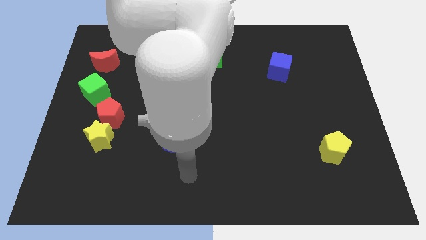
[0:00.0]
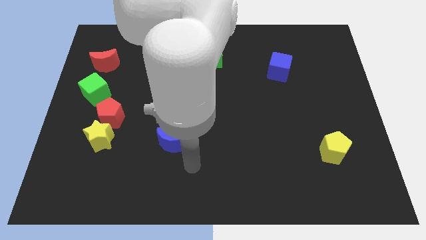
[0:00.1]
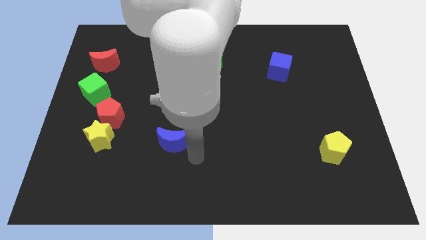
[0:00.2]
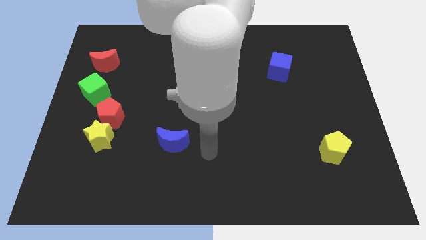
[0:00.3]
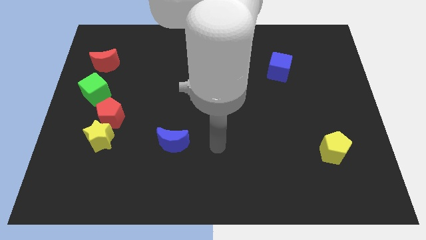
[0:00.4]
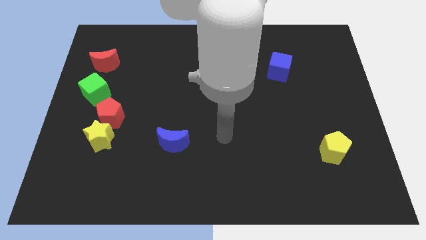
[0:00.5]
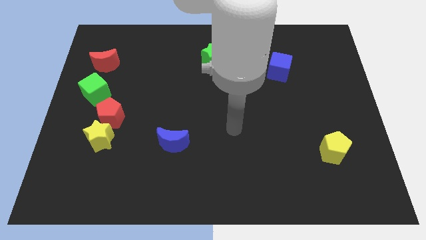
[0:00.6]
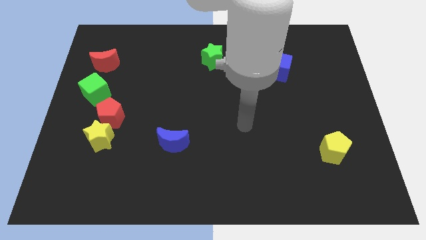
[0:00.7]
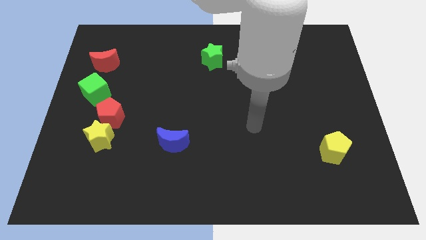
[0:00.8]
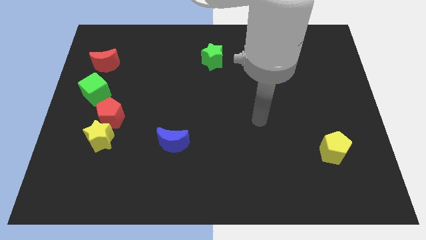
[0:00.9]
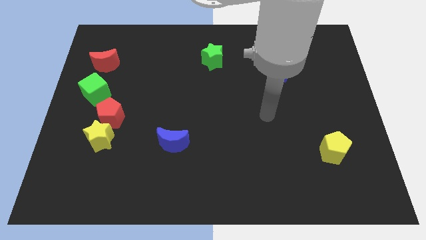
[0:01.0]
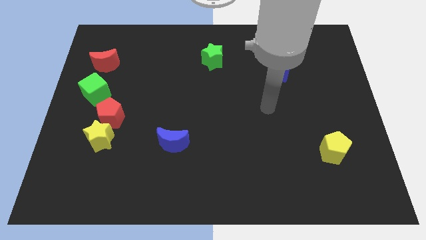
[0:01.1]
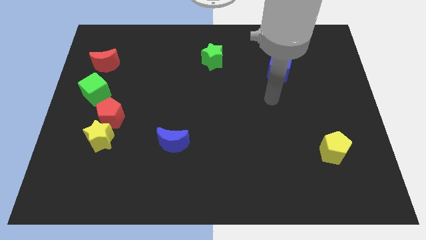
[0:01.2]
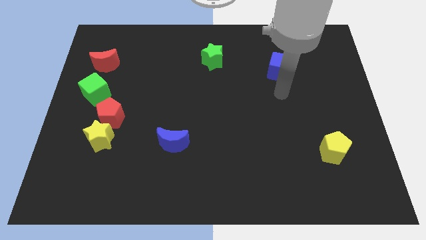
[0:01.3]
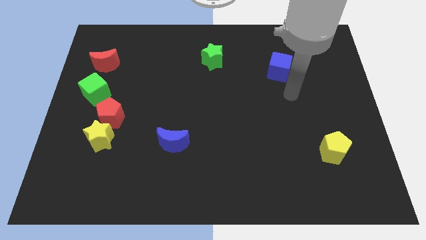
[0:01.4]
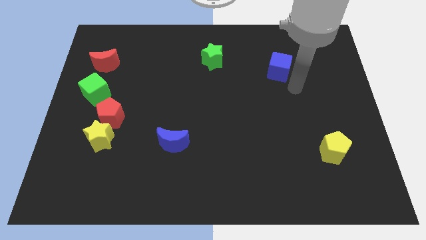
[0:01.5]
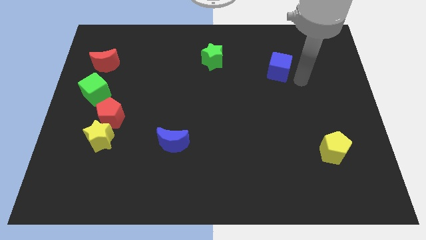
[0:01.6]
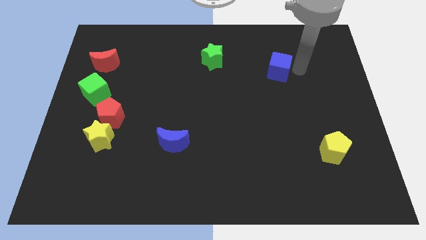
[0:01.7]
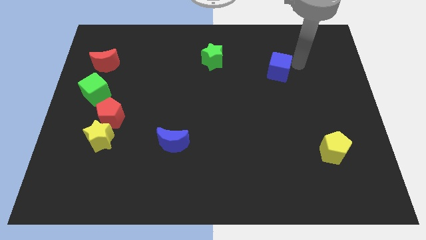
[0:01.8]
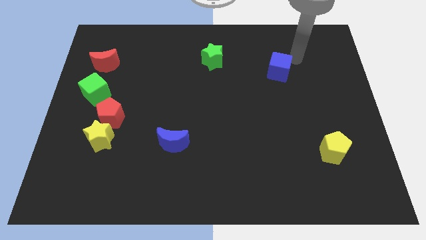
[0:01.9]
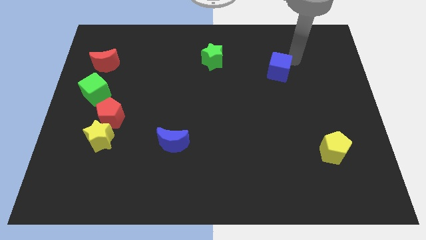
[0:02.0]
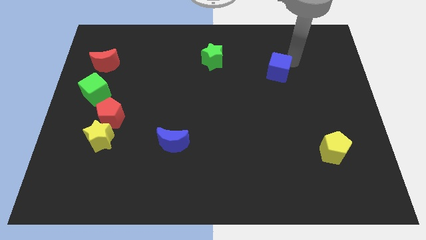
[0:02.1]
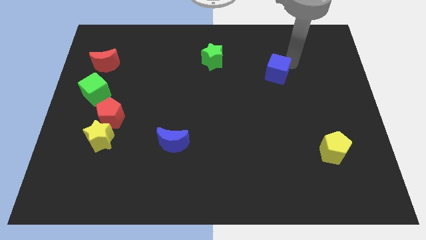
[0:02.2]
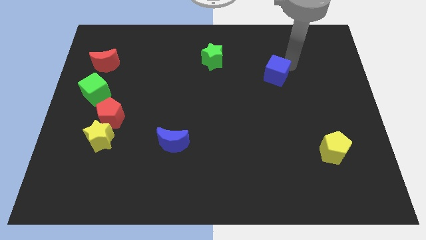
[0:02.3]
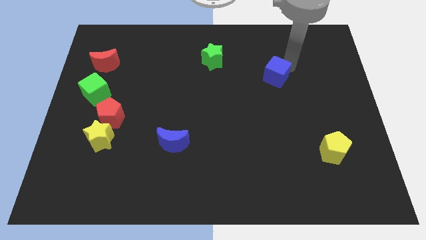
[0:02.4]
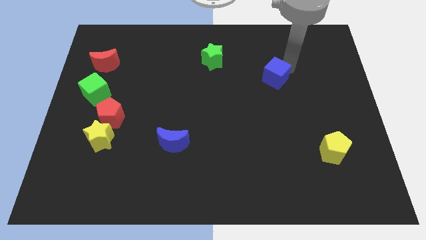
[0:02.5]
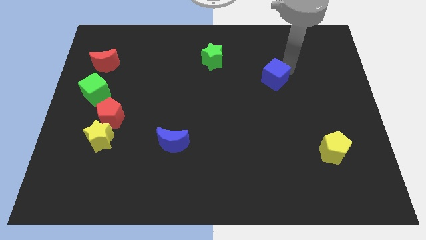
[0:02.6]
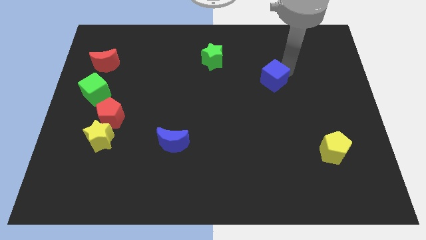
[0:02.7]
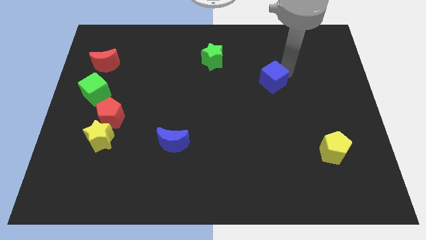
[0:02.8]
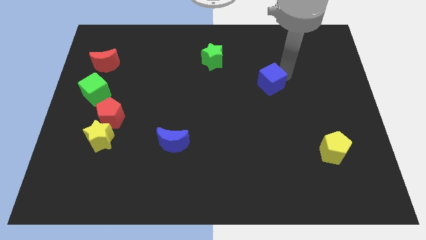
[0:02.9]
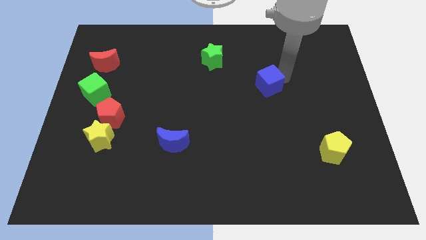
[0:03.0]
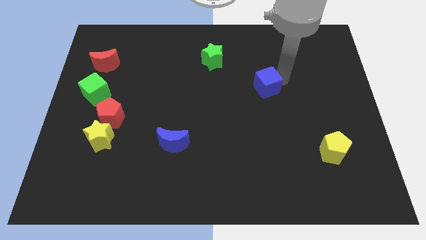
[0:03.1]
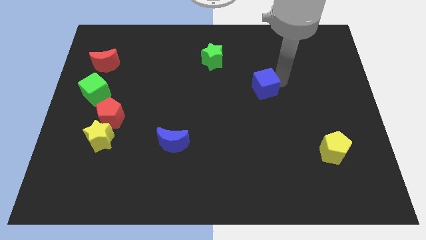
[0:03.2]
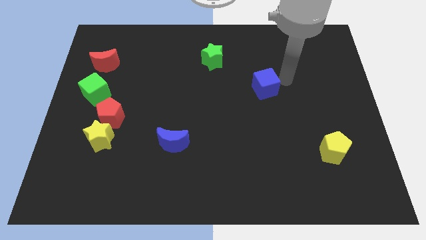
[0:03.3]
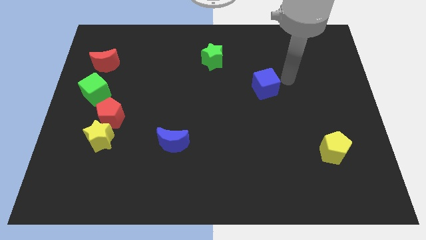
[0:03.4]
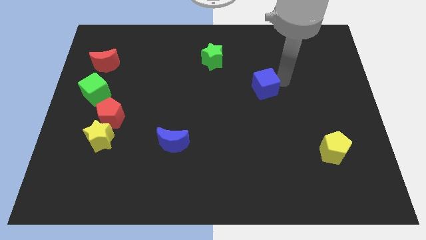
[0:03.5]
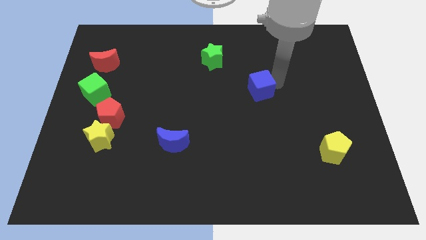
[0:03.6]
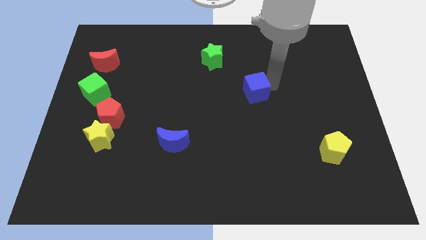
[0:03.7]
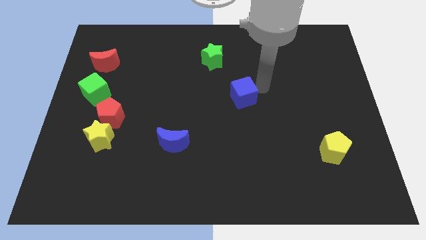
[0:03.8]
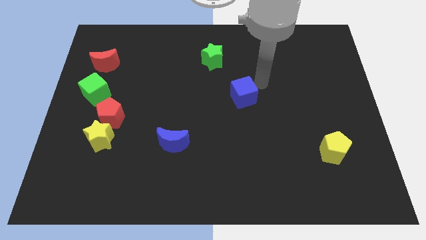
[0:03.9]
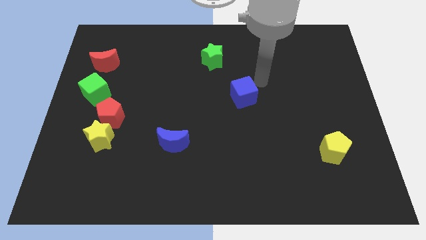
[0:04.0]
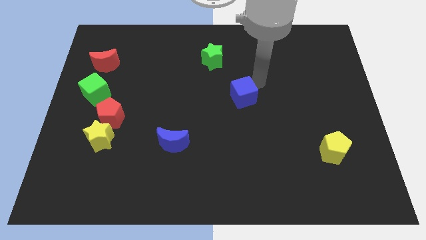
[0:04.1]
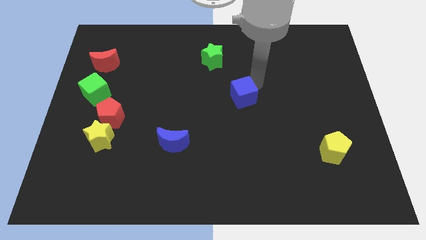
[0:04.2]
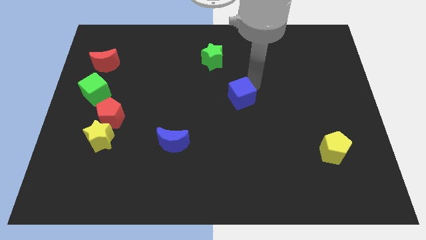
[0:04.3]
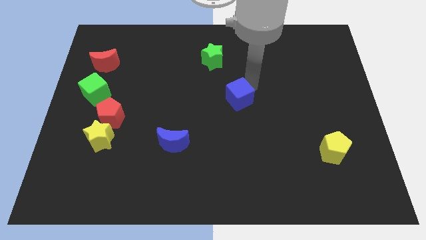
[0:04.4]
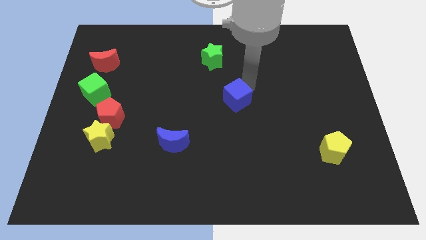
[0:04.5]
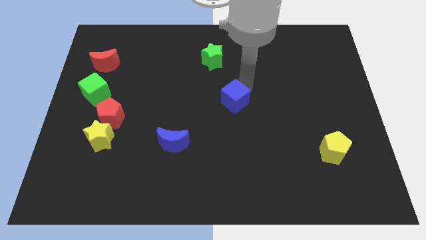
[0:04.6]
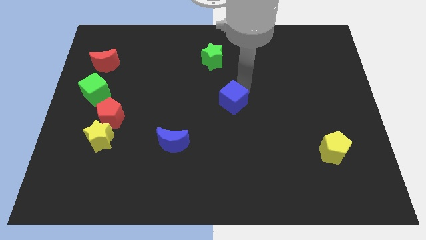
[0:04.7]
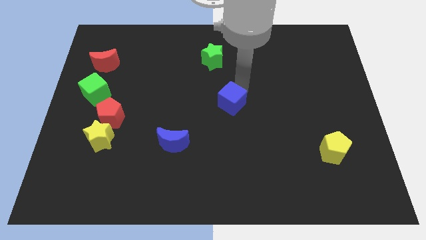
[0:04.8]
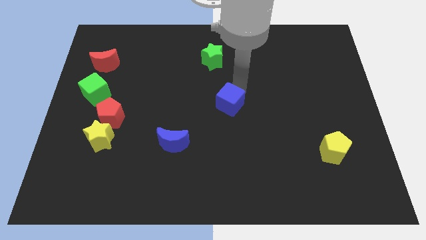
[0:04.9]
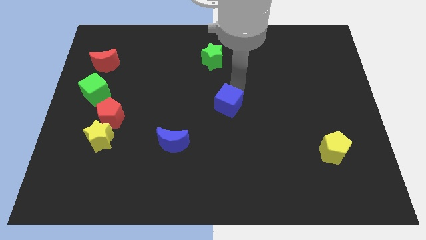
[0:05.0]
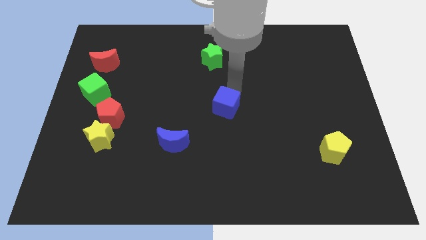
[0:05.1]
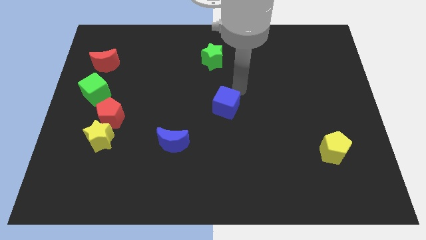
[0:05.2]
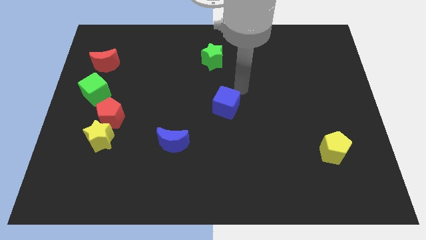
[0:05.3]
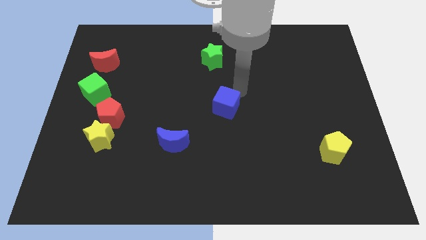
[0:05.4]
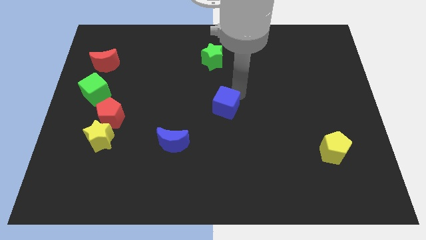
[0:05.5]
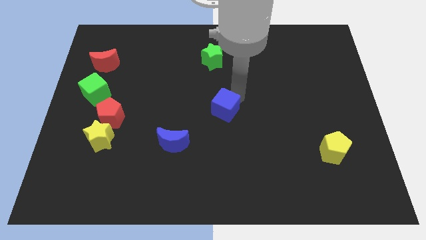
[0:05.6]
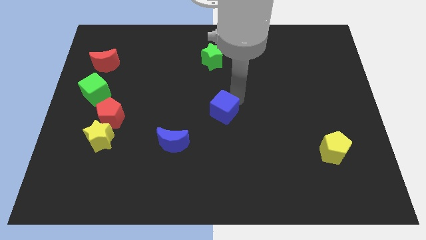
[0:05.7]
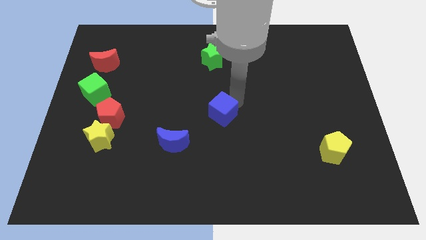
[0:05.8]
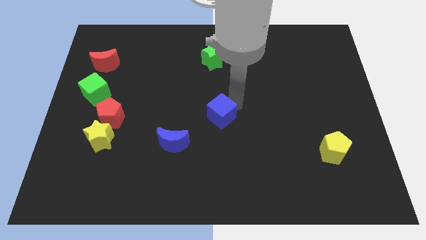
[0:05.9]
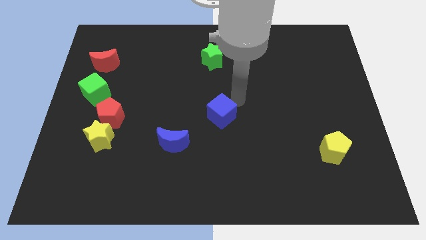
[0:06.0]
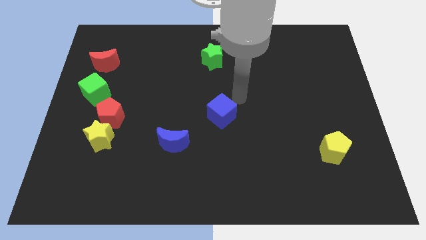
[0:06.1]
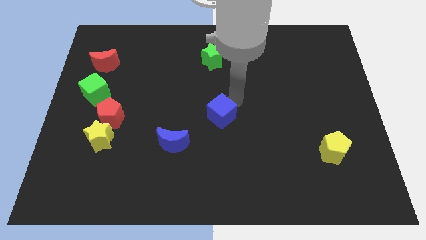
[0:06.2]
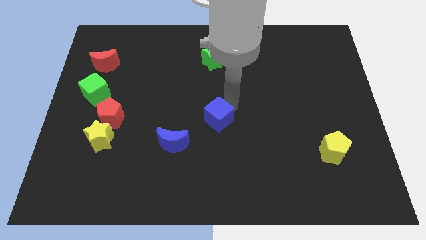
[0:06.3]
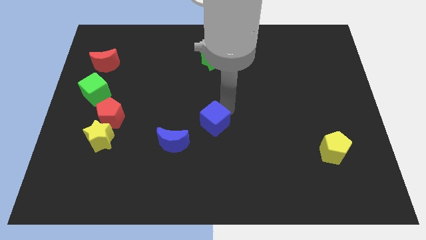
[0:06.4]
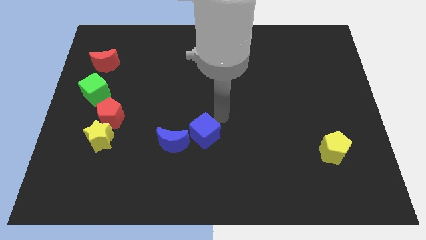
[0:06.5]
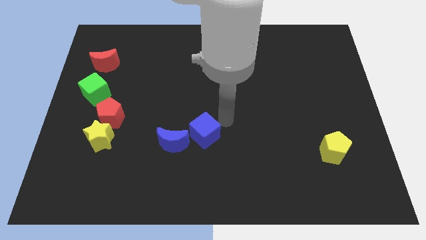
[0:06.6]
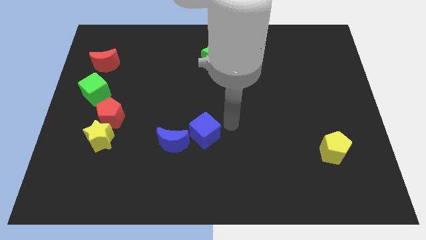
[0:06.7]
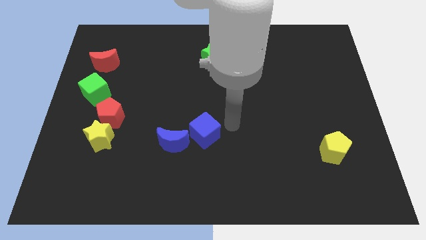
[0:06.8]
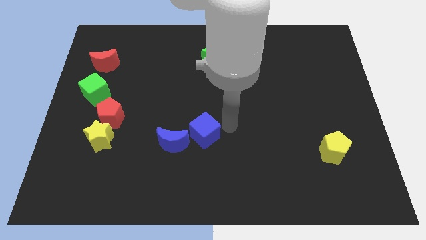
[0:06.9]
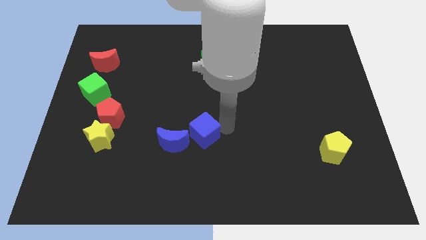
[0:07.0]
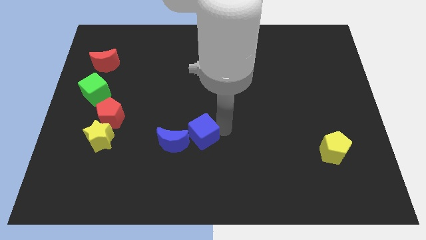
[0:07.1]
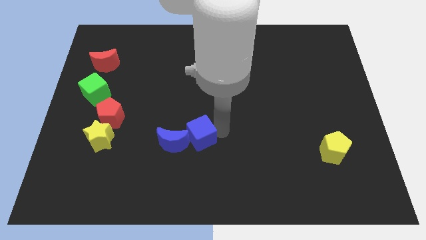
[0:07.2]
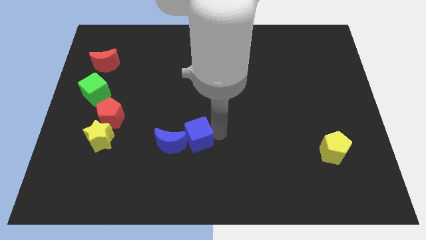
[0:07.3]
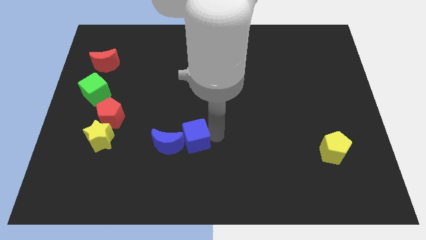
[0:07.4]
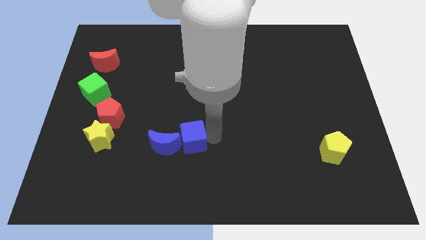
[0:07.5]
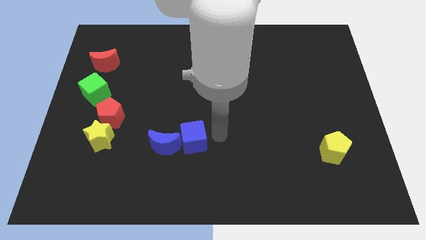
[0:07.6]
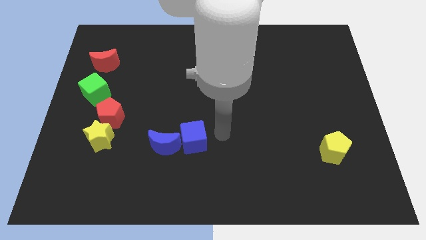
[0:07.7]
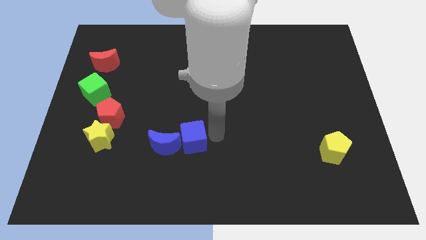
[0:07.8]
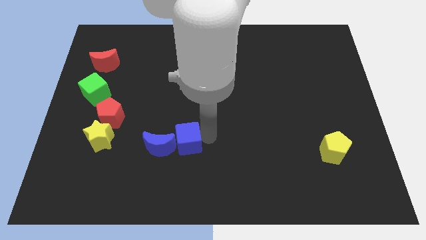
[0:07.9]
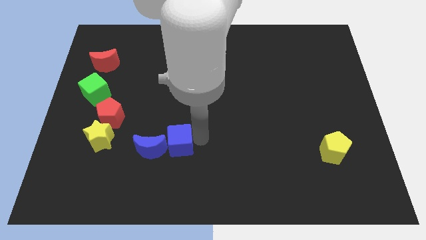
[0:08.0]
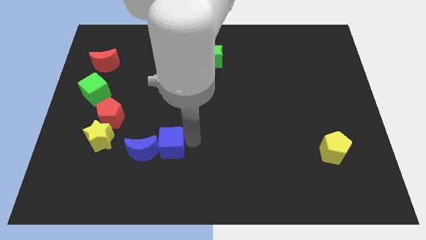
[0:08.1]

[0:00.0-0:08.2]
slide the blue cube to the blue moon
